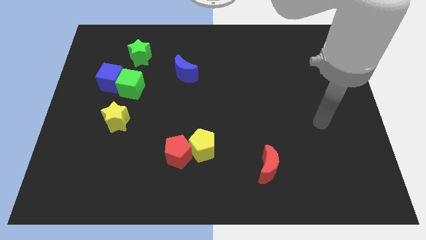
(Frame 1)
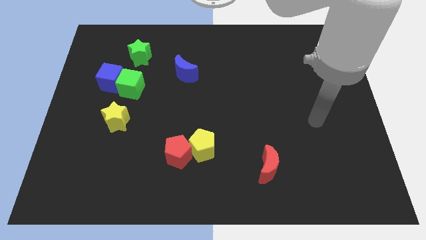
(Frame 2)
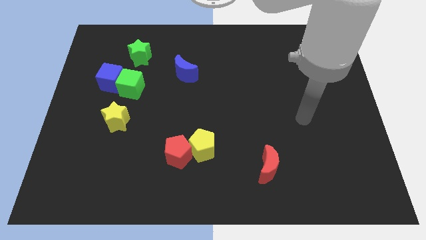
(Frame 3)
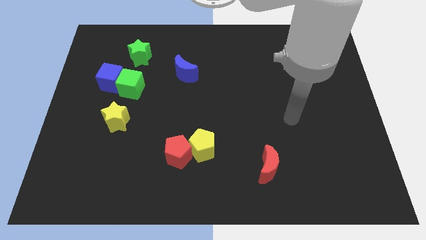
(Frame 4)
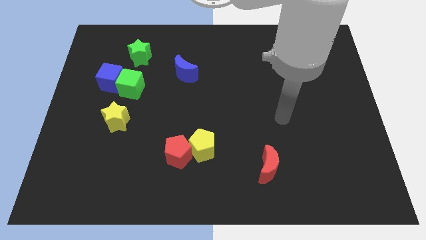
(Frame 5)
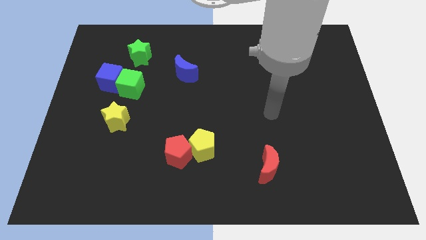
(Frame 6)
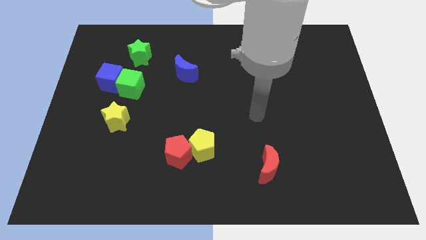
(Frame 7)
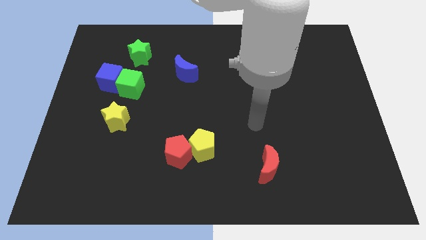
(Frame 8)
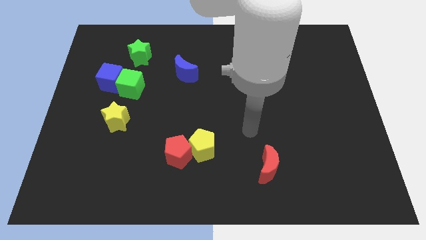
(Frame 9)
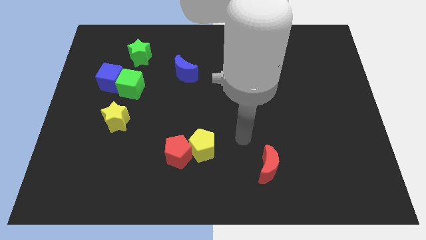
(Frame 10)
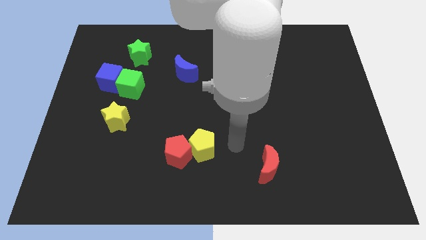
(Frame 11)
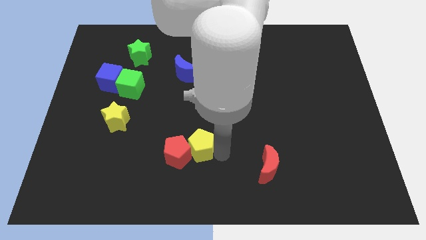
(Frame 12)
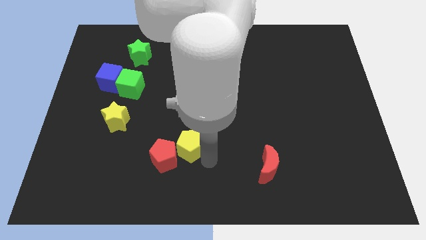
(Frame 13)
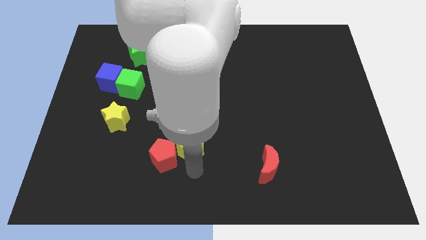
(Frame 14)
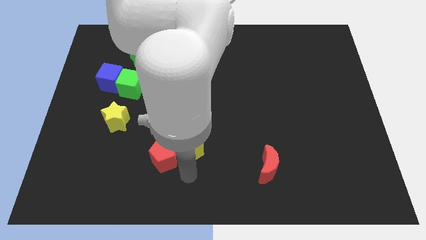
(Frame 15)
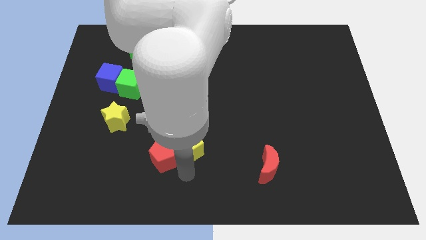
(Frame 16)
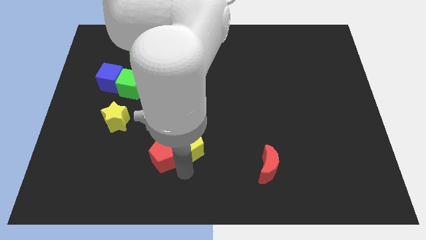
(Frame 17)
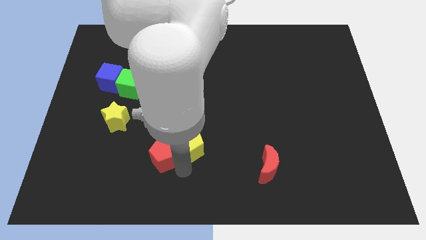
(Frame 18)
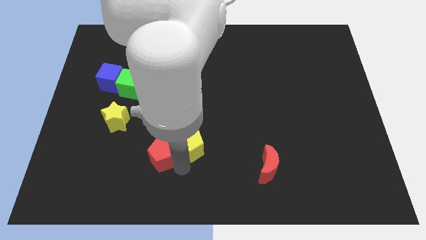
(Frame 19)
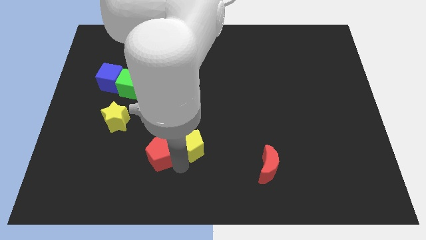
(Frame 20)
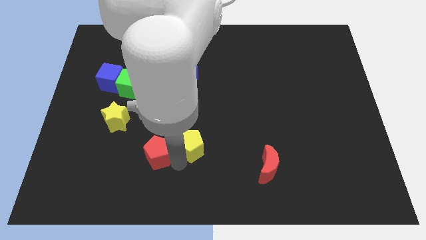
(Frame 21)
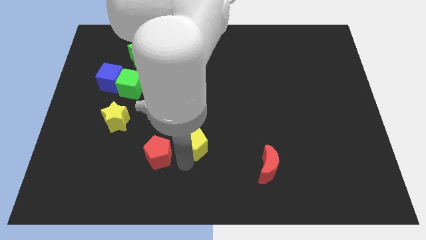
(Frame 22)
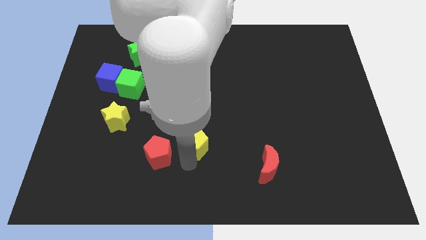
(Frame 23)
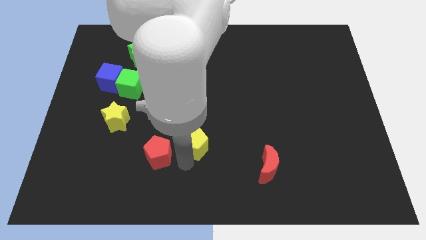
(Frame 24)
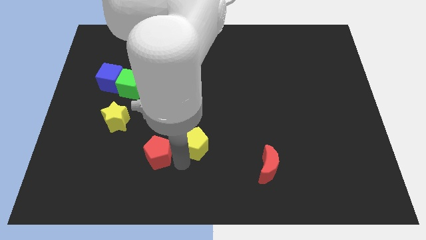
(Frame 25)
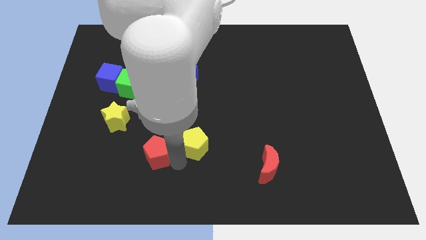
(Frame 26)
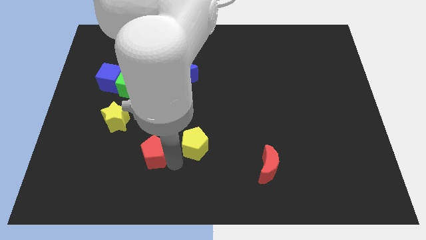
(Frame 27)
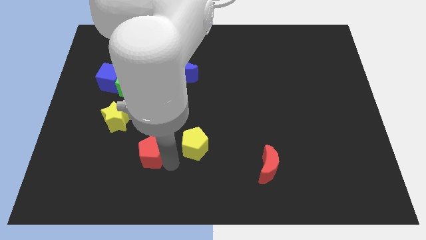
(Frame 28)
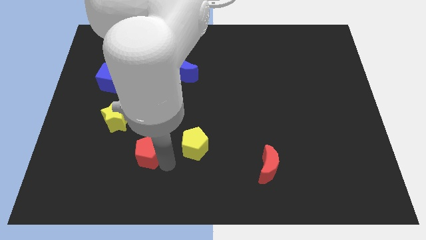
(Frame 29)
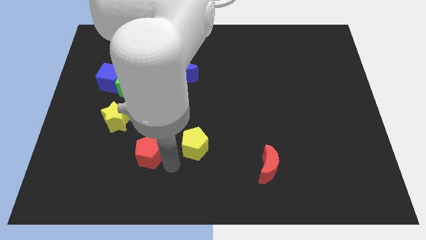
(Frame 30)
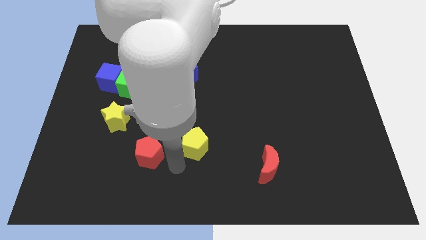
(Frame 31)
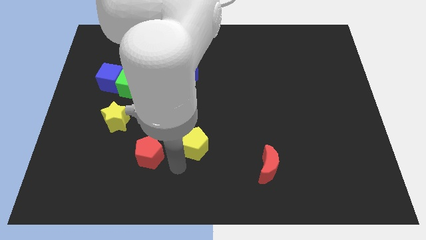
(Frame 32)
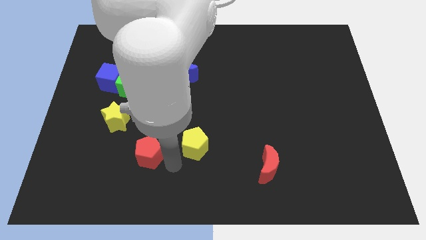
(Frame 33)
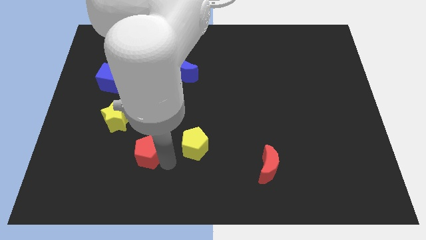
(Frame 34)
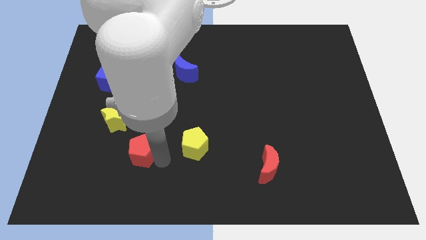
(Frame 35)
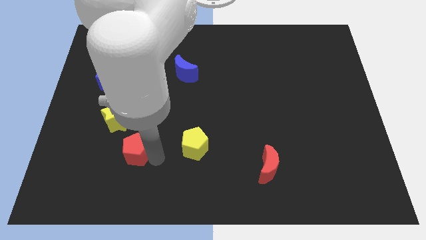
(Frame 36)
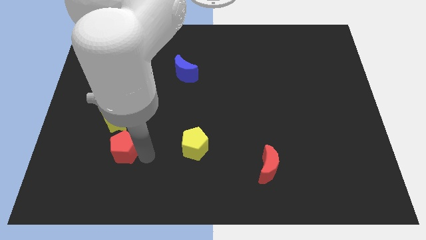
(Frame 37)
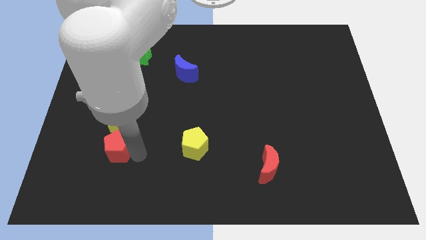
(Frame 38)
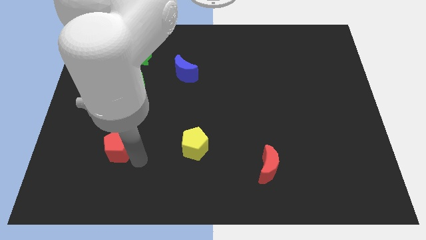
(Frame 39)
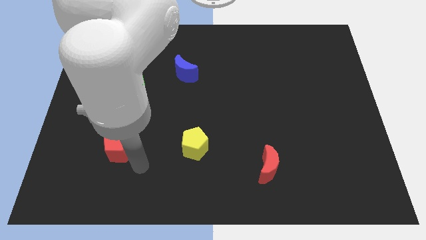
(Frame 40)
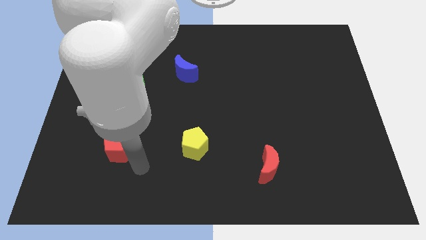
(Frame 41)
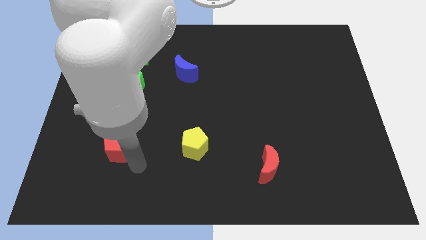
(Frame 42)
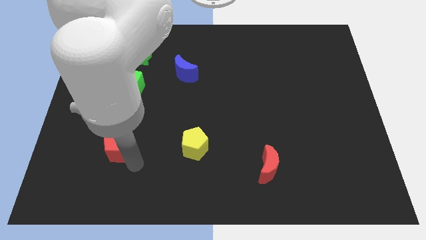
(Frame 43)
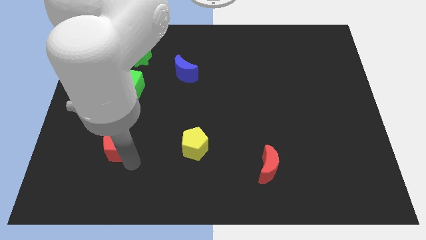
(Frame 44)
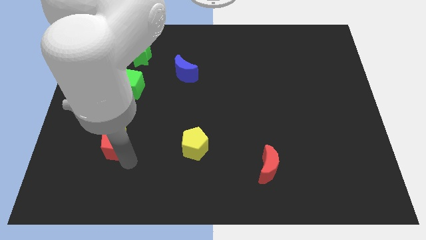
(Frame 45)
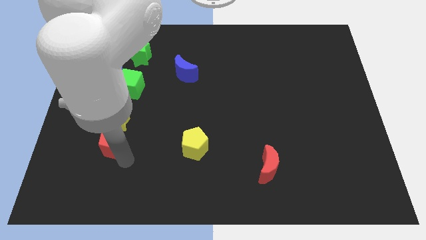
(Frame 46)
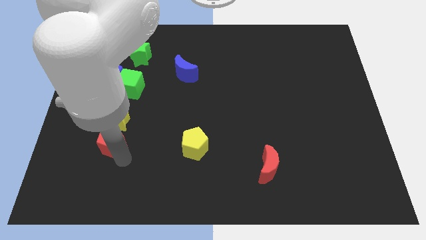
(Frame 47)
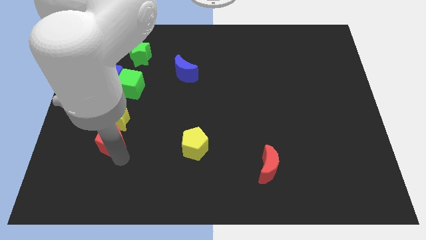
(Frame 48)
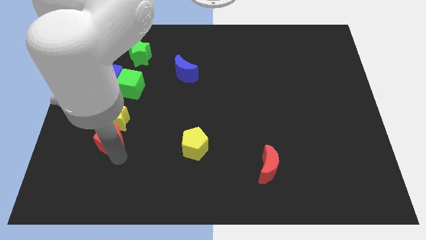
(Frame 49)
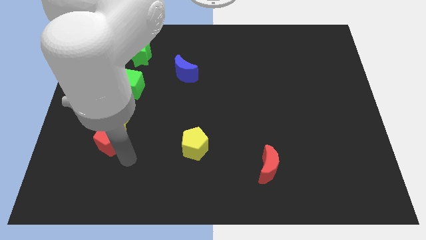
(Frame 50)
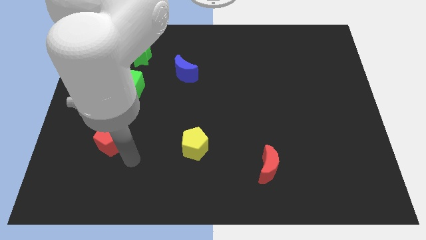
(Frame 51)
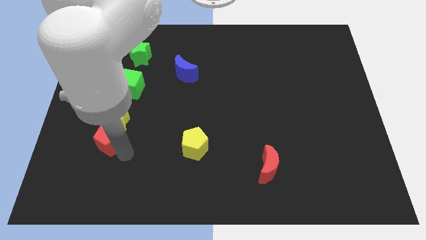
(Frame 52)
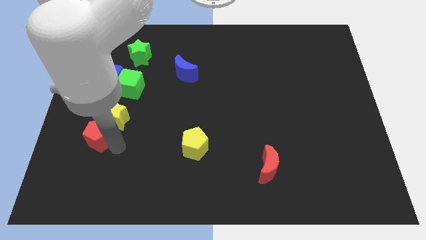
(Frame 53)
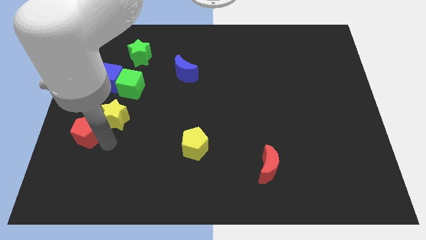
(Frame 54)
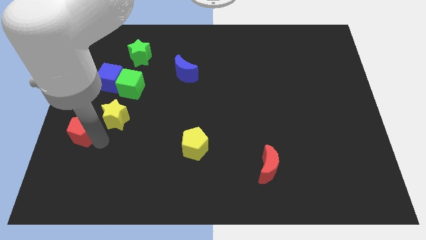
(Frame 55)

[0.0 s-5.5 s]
move the red pentagon to the left side of the board

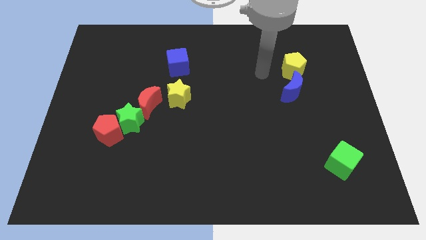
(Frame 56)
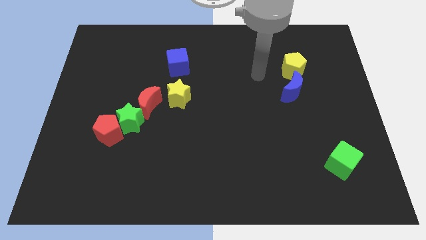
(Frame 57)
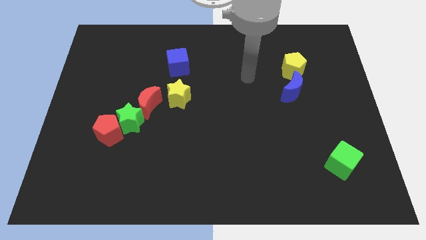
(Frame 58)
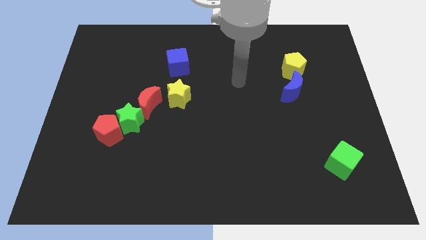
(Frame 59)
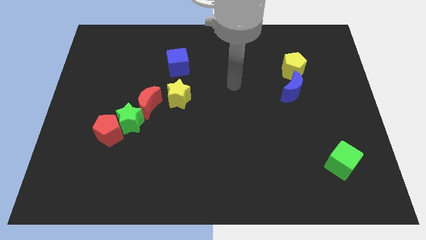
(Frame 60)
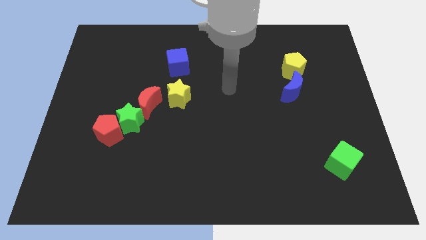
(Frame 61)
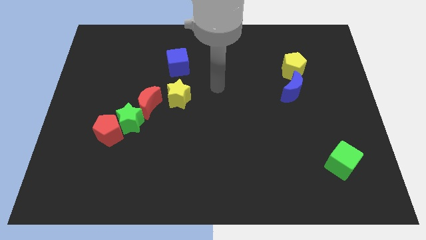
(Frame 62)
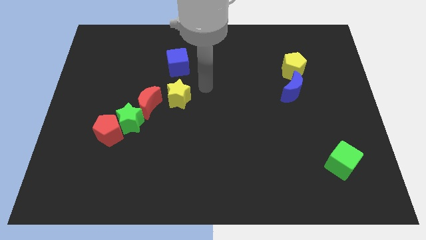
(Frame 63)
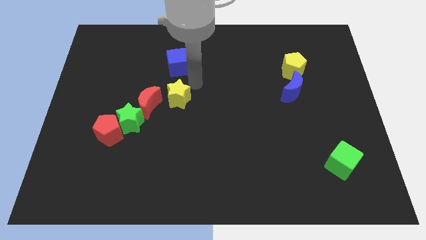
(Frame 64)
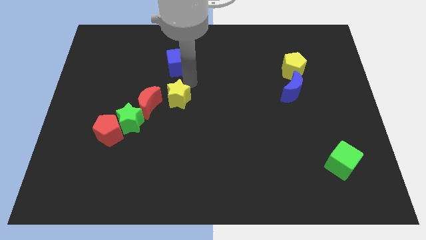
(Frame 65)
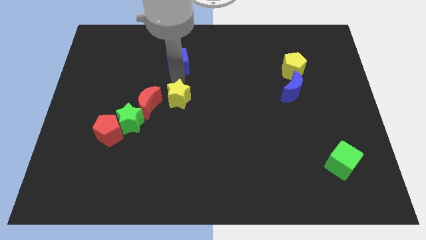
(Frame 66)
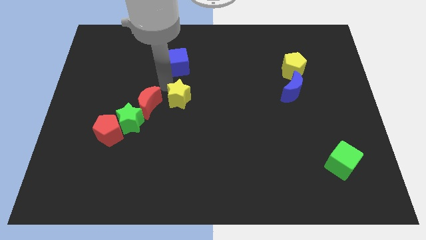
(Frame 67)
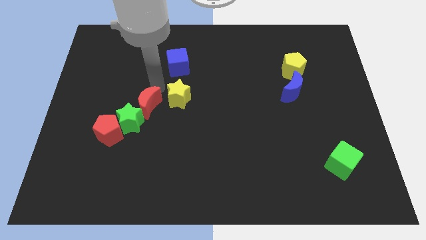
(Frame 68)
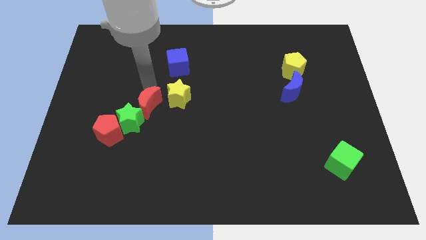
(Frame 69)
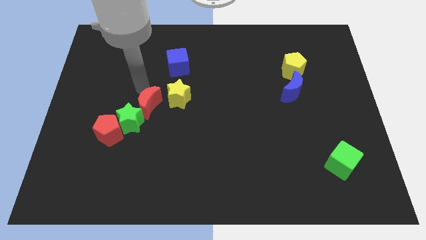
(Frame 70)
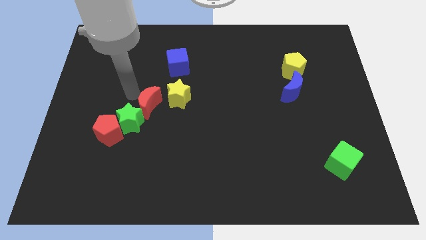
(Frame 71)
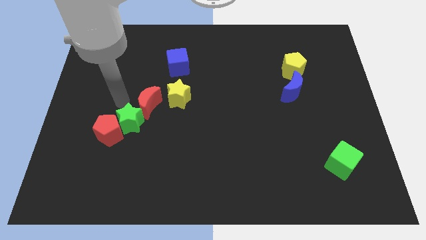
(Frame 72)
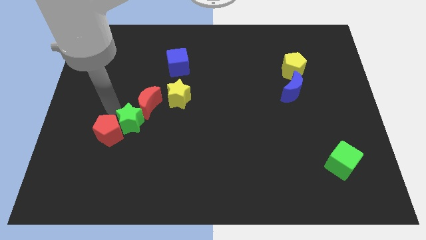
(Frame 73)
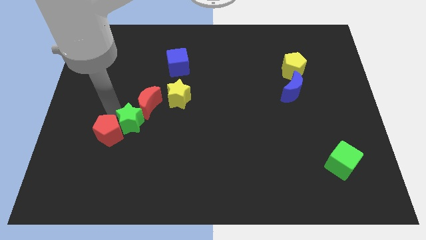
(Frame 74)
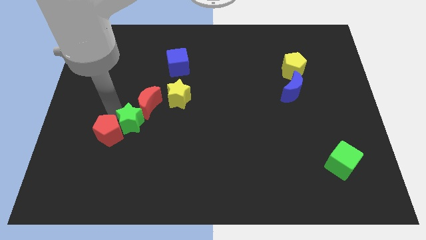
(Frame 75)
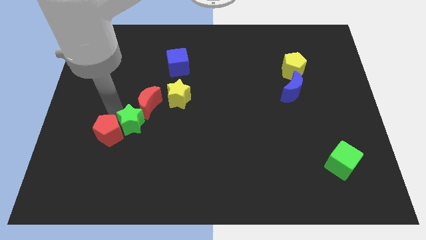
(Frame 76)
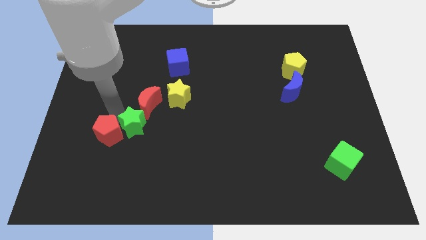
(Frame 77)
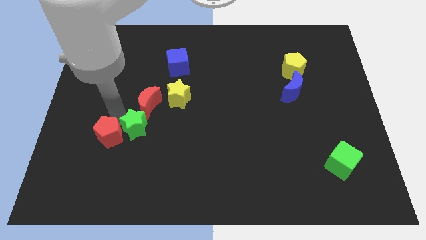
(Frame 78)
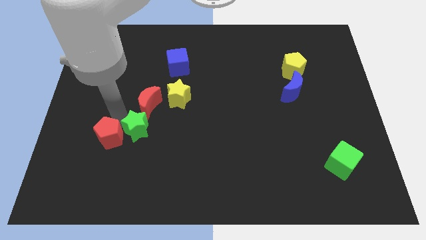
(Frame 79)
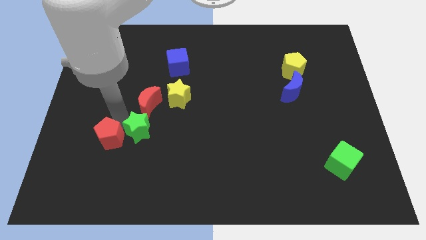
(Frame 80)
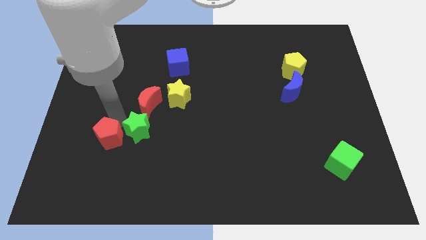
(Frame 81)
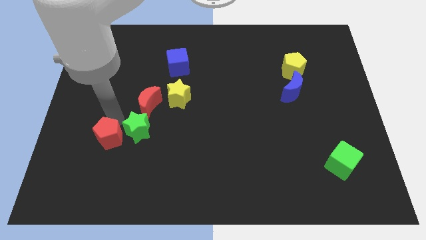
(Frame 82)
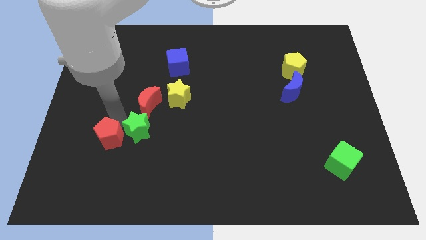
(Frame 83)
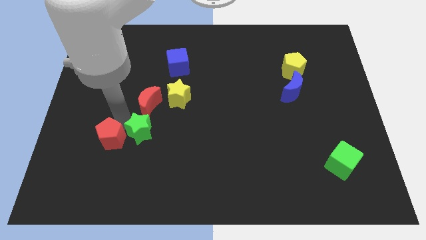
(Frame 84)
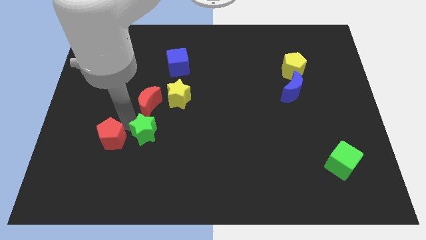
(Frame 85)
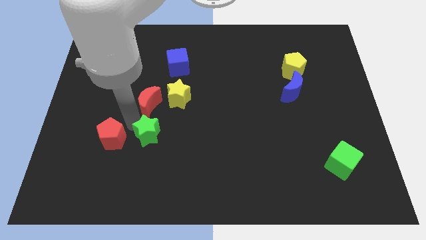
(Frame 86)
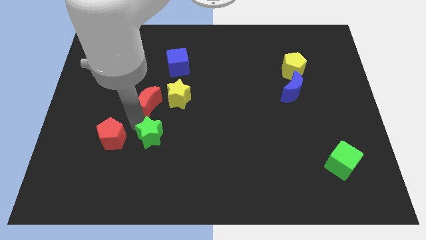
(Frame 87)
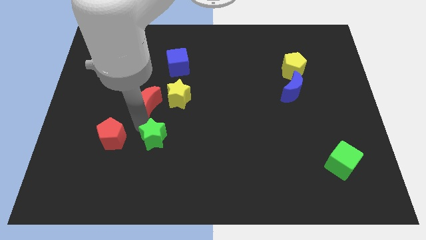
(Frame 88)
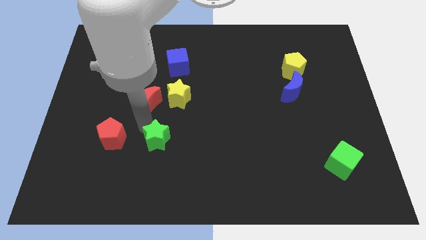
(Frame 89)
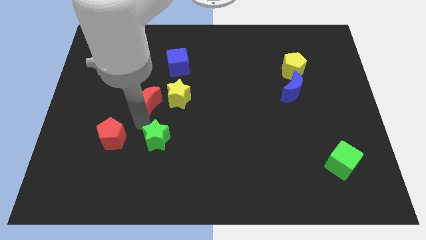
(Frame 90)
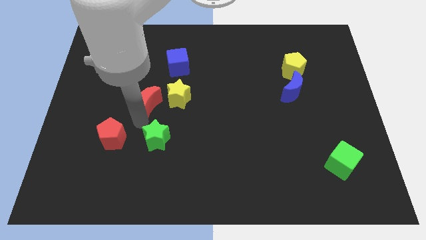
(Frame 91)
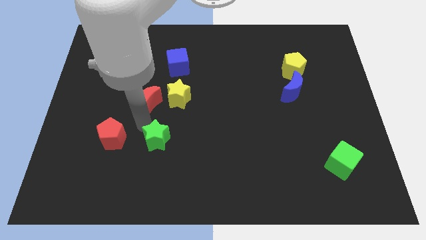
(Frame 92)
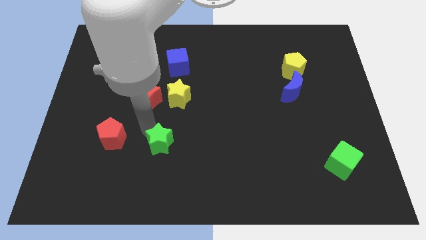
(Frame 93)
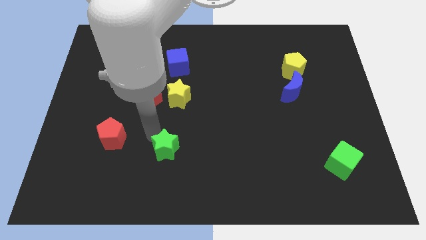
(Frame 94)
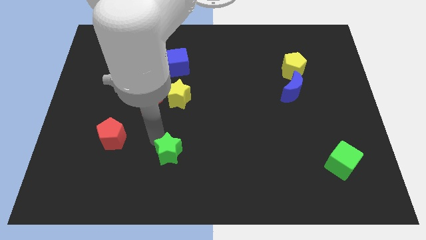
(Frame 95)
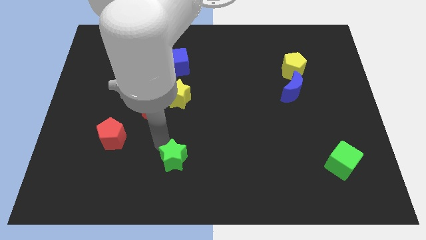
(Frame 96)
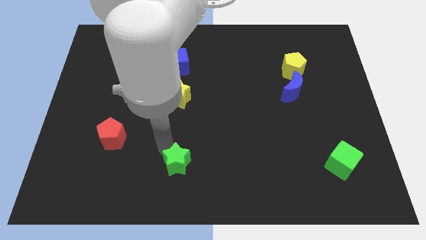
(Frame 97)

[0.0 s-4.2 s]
put the green star to the bottom side
